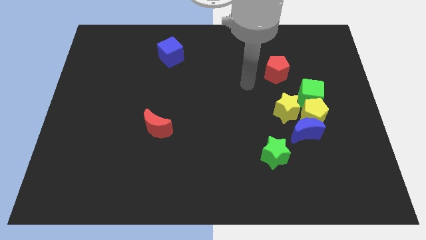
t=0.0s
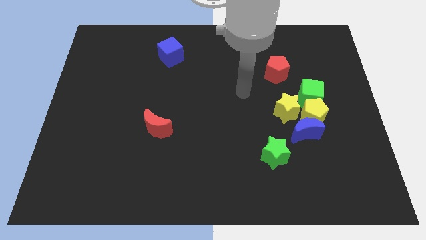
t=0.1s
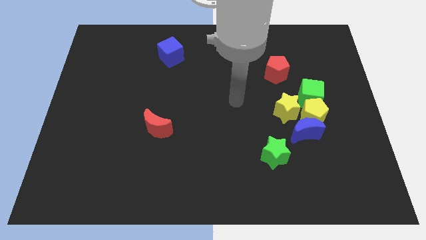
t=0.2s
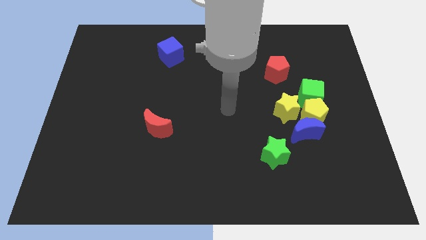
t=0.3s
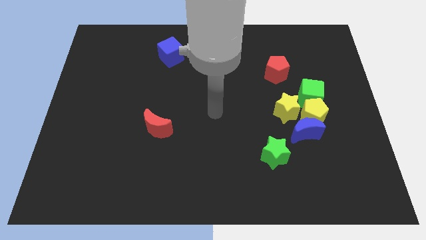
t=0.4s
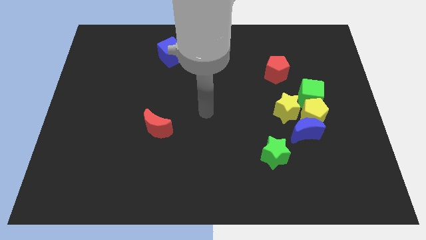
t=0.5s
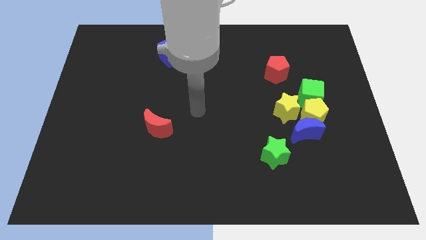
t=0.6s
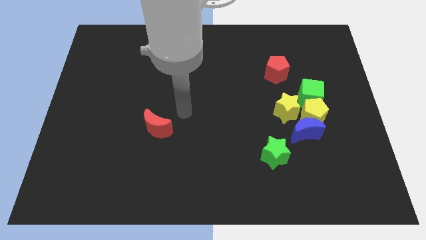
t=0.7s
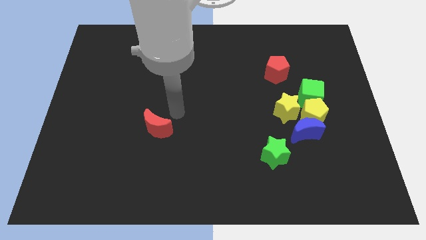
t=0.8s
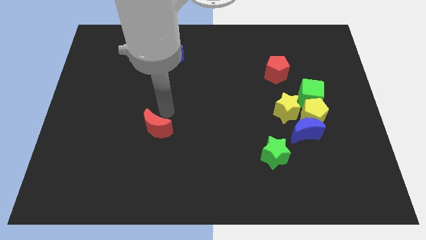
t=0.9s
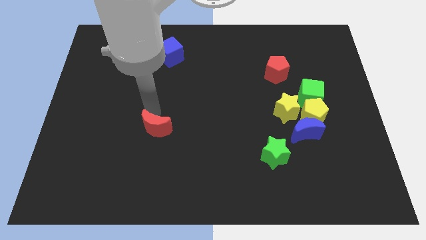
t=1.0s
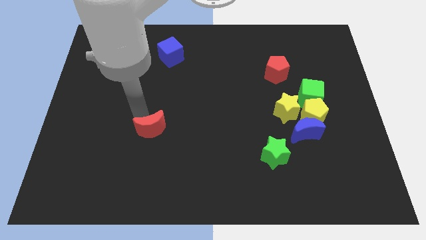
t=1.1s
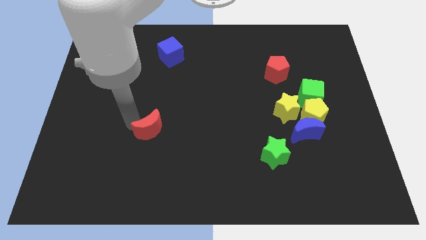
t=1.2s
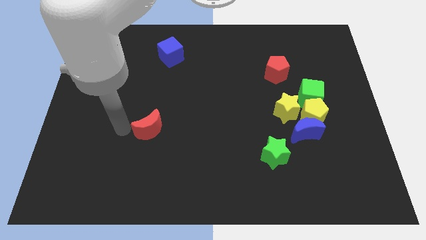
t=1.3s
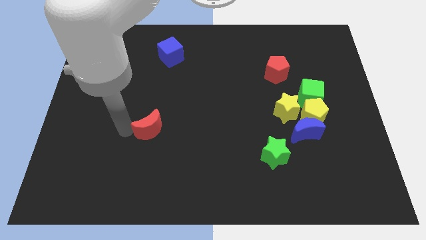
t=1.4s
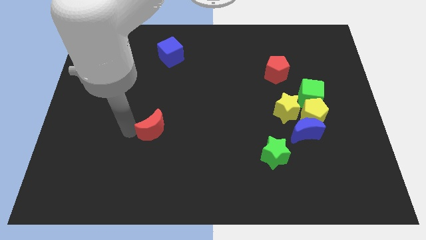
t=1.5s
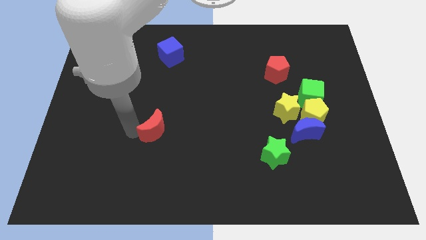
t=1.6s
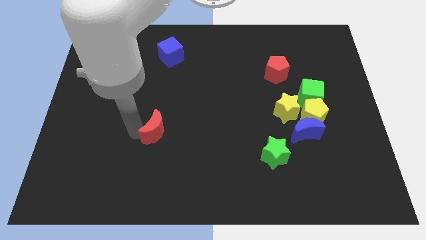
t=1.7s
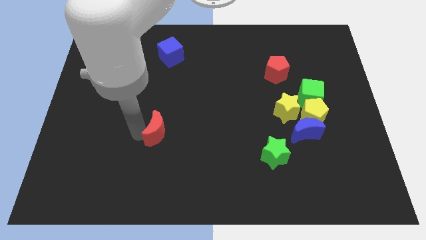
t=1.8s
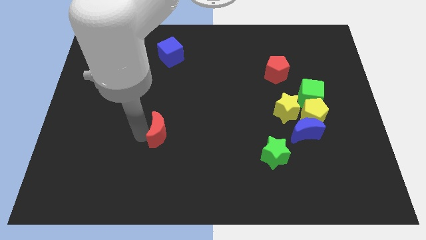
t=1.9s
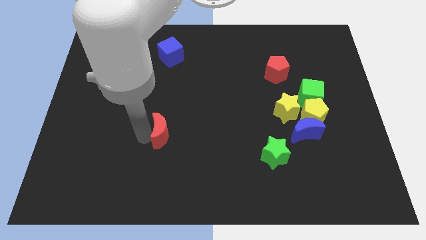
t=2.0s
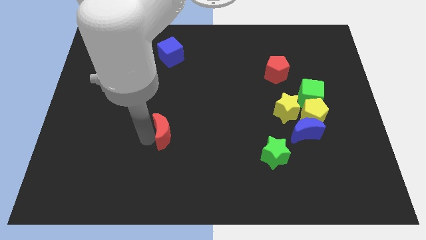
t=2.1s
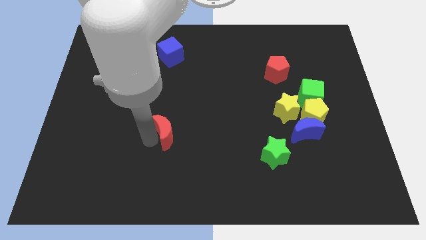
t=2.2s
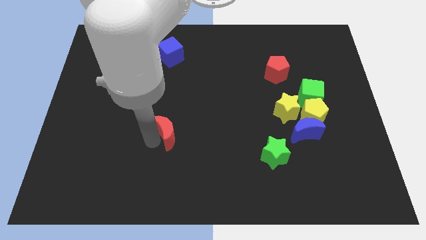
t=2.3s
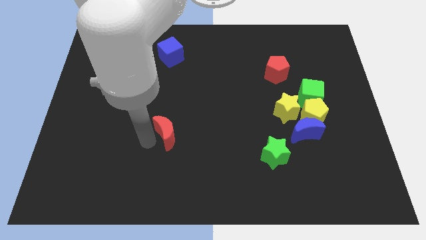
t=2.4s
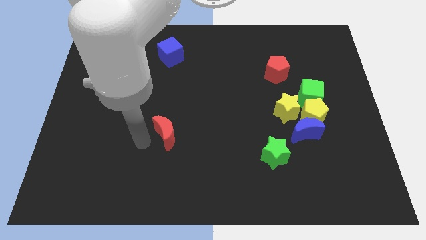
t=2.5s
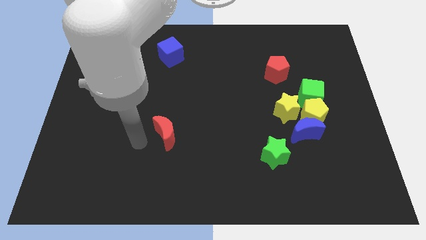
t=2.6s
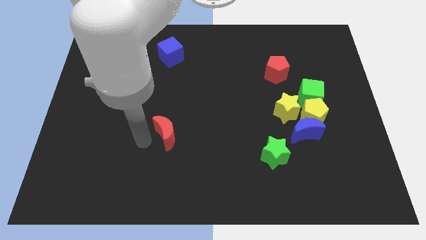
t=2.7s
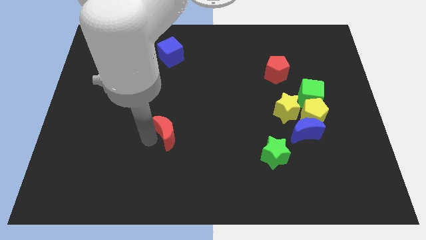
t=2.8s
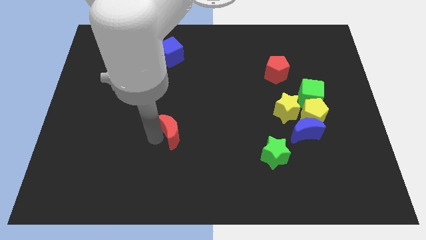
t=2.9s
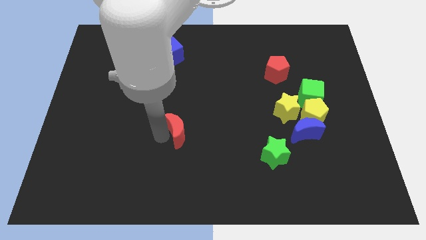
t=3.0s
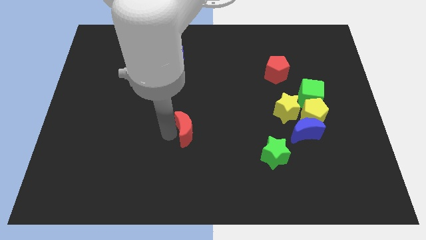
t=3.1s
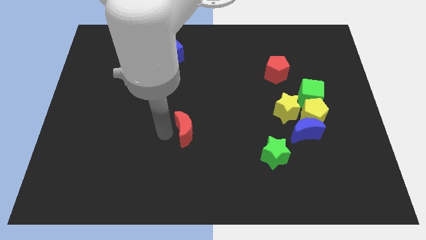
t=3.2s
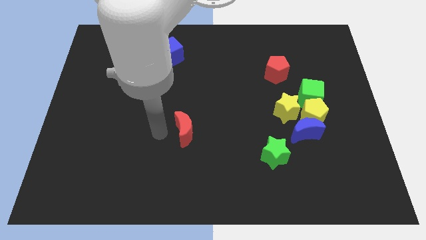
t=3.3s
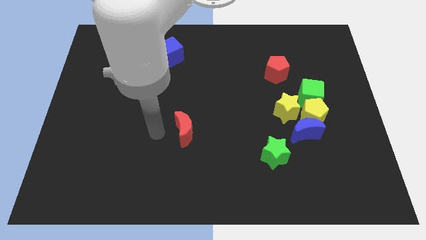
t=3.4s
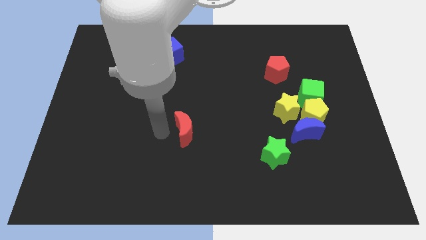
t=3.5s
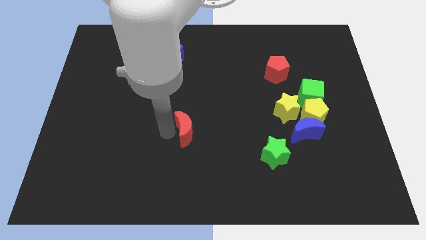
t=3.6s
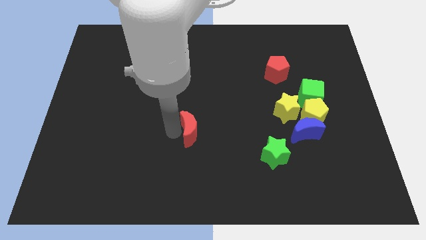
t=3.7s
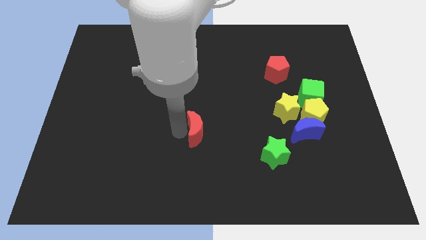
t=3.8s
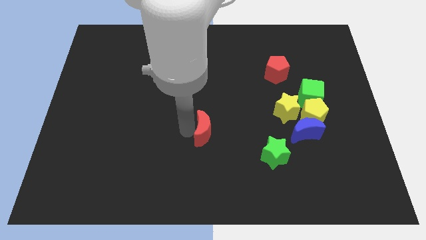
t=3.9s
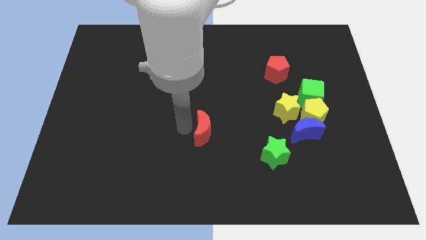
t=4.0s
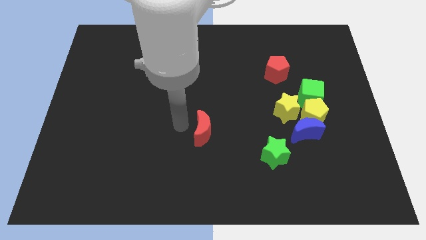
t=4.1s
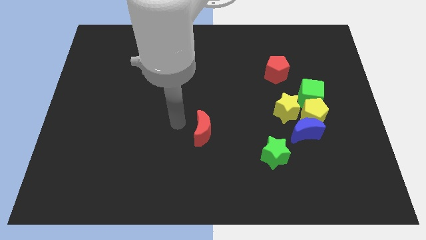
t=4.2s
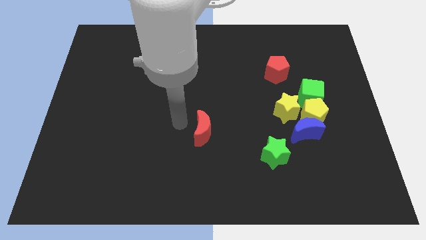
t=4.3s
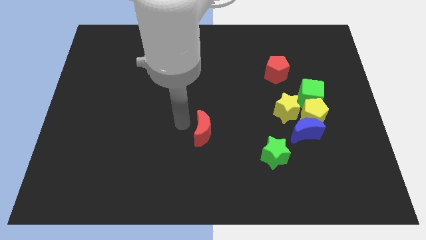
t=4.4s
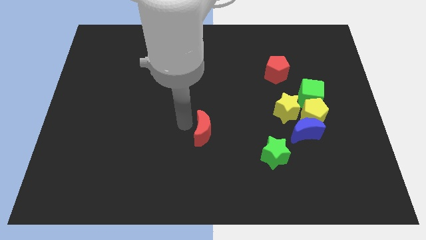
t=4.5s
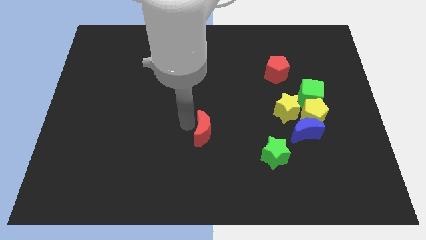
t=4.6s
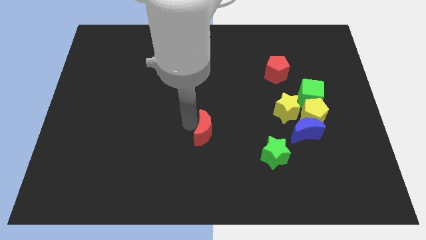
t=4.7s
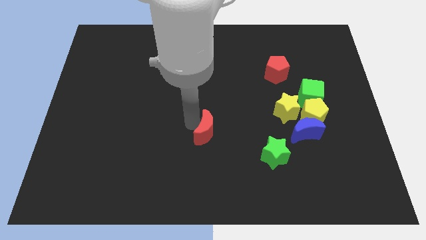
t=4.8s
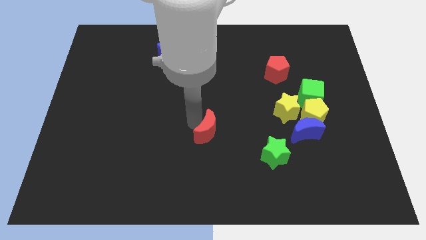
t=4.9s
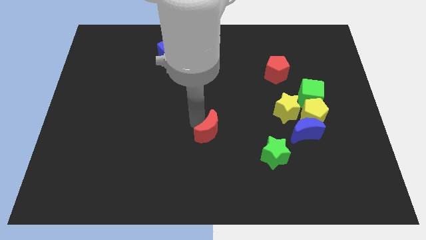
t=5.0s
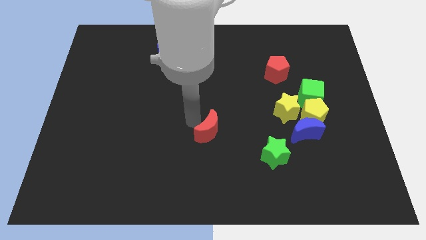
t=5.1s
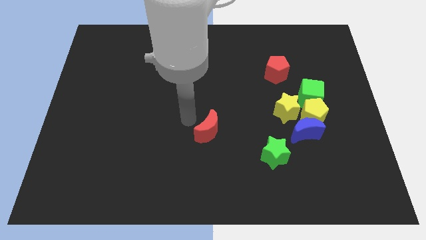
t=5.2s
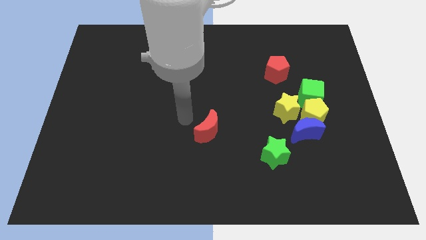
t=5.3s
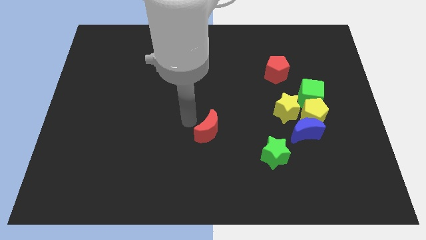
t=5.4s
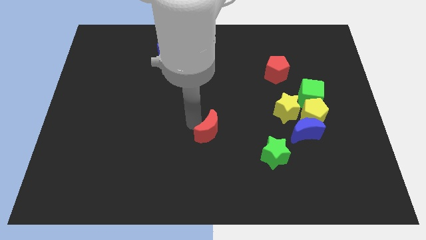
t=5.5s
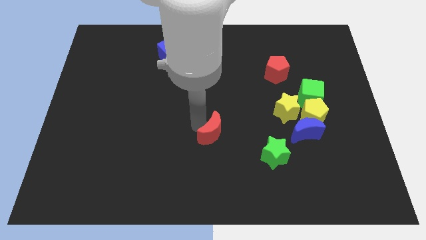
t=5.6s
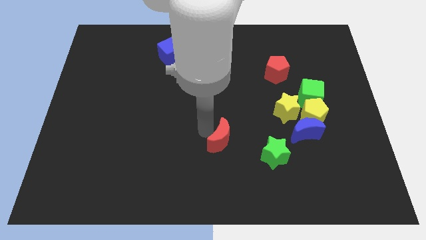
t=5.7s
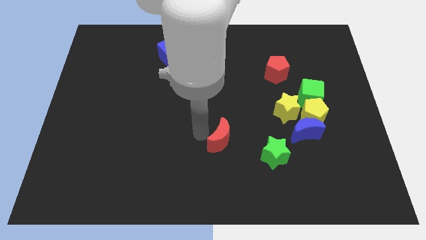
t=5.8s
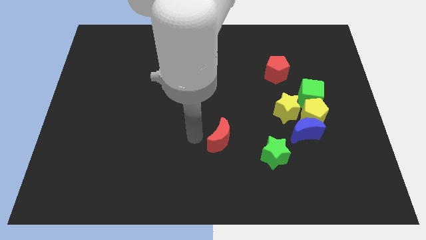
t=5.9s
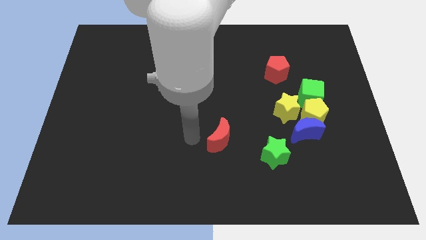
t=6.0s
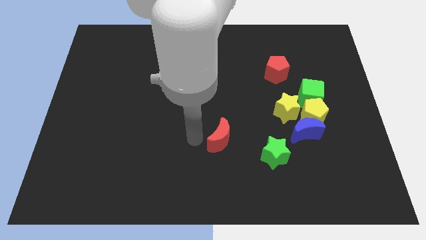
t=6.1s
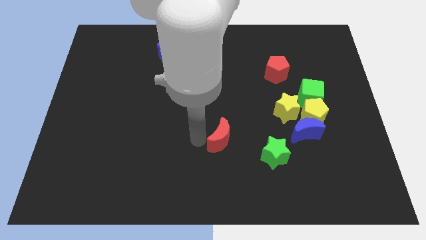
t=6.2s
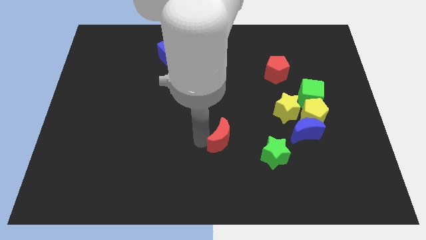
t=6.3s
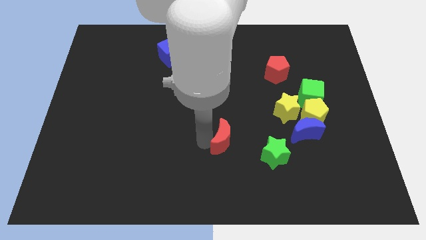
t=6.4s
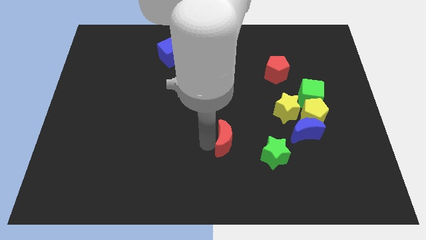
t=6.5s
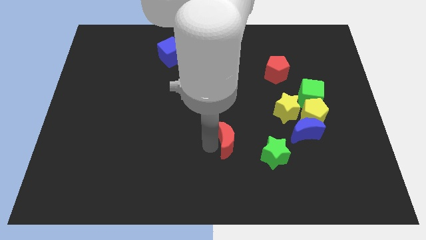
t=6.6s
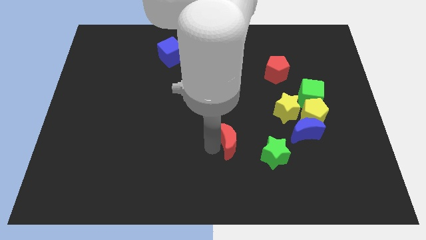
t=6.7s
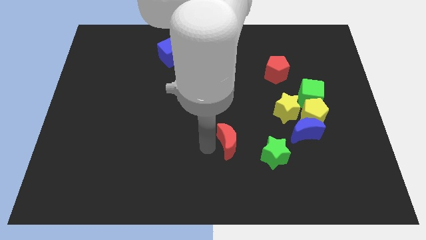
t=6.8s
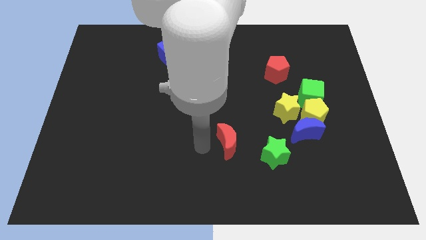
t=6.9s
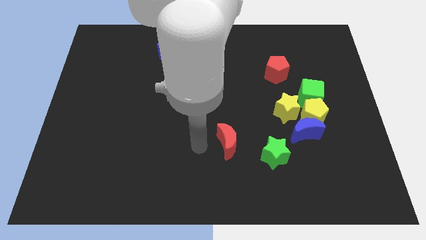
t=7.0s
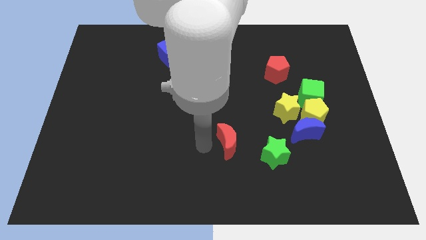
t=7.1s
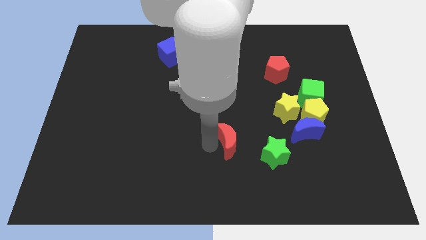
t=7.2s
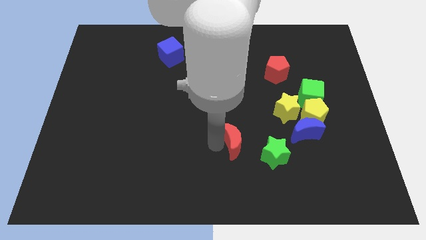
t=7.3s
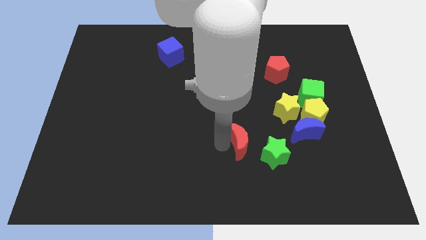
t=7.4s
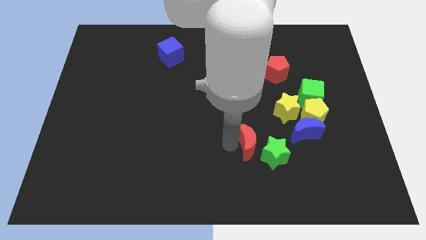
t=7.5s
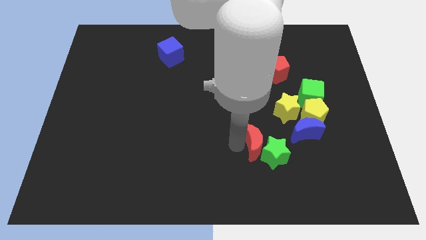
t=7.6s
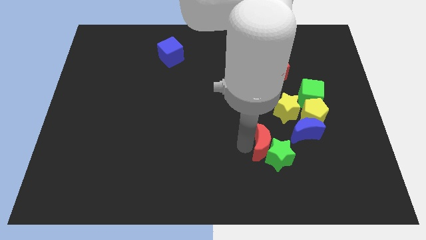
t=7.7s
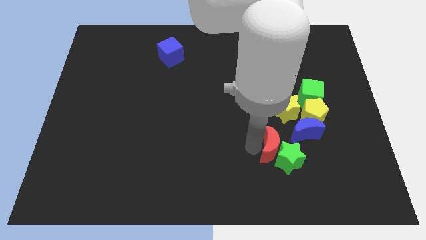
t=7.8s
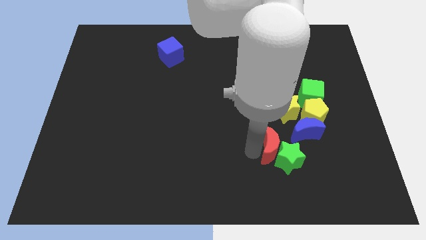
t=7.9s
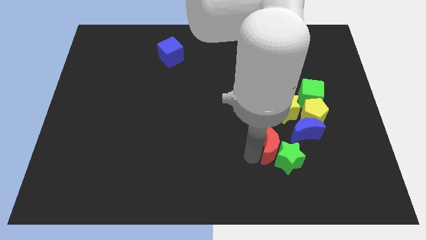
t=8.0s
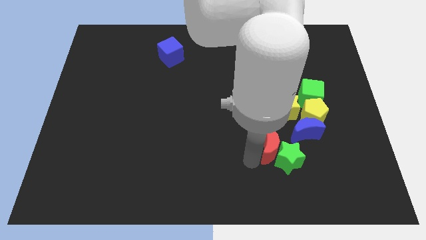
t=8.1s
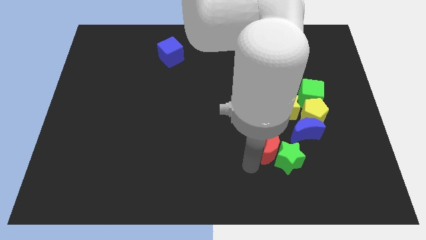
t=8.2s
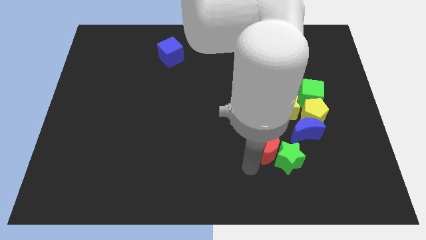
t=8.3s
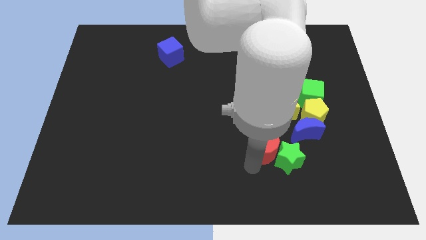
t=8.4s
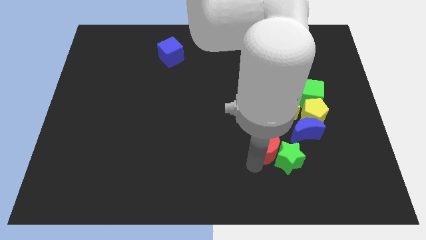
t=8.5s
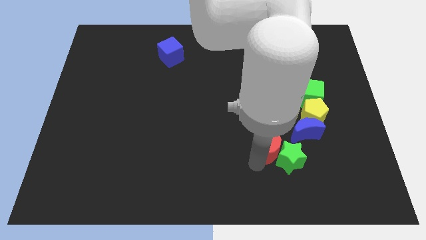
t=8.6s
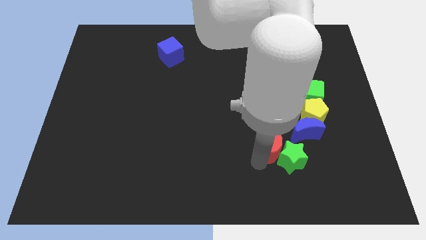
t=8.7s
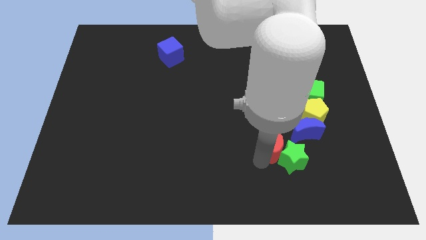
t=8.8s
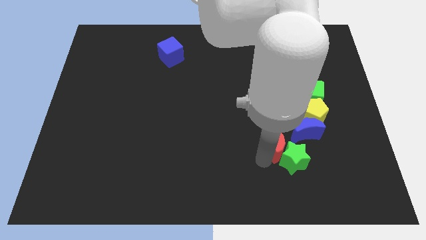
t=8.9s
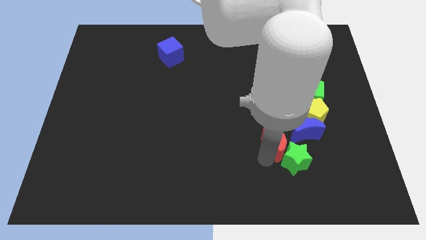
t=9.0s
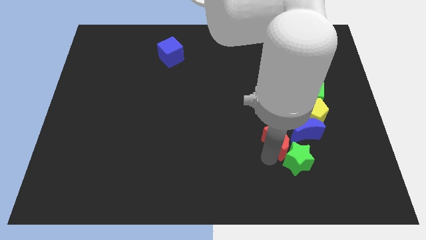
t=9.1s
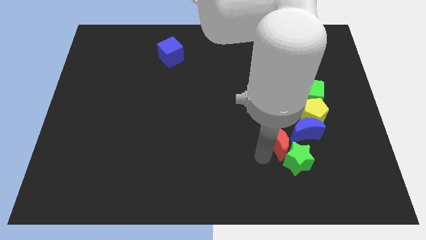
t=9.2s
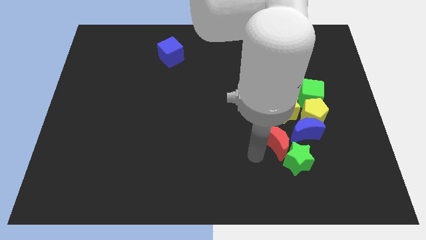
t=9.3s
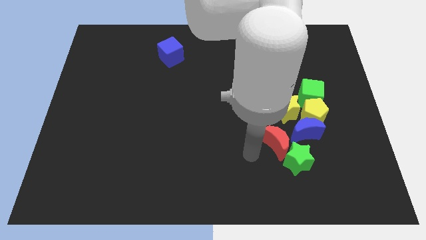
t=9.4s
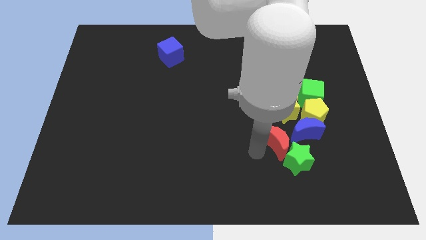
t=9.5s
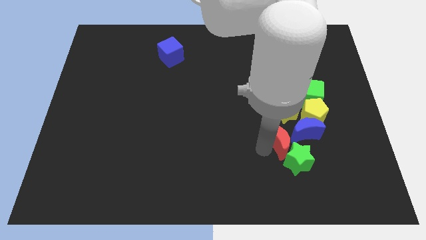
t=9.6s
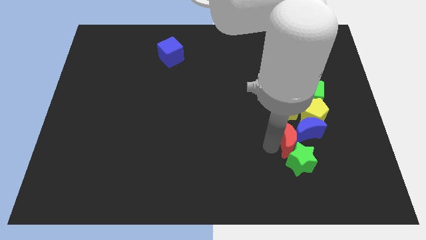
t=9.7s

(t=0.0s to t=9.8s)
put the red moon to the blue moon
